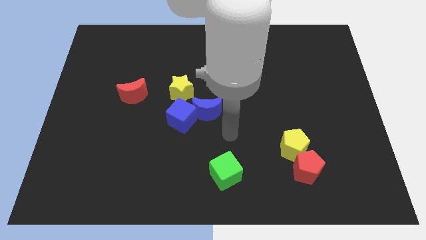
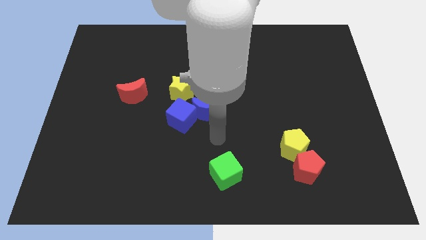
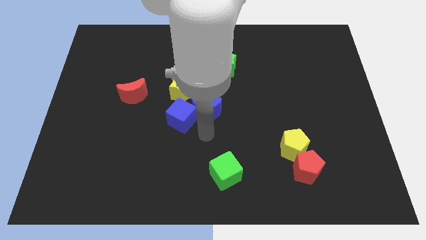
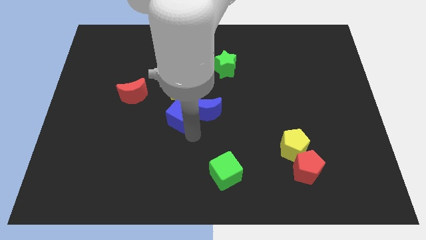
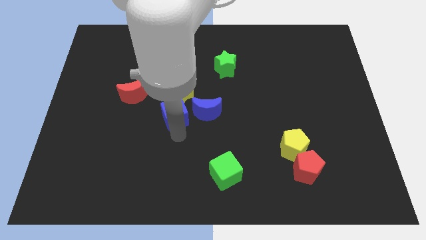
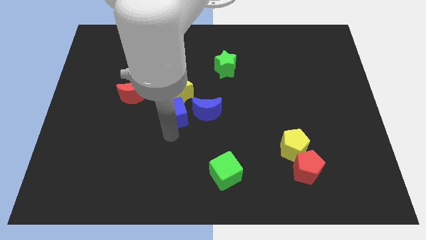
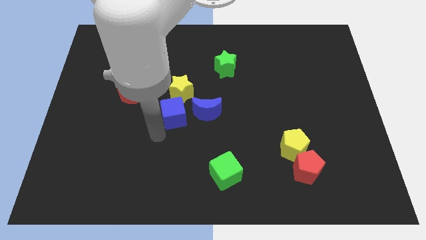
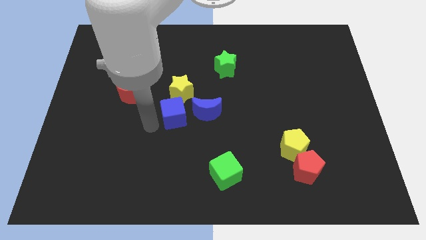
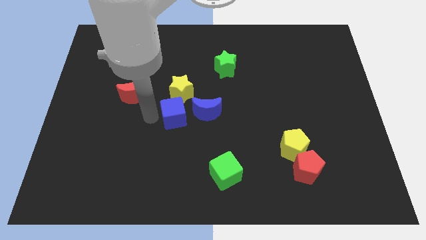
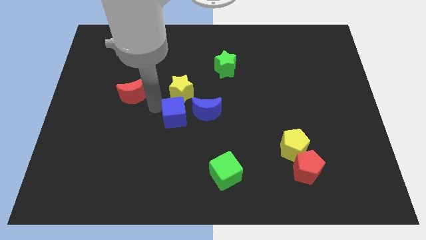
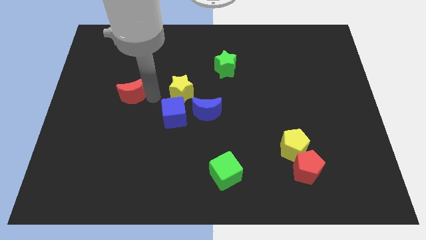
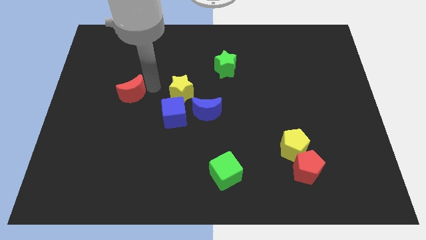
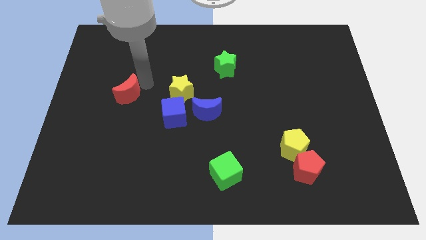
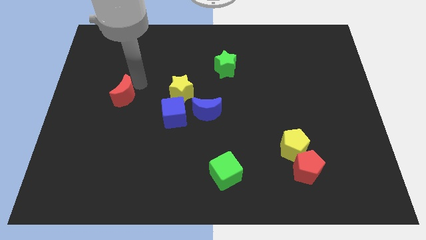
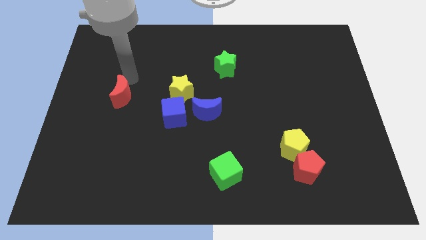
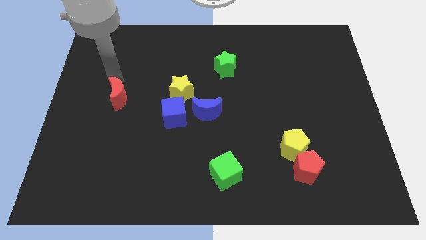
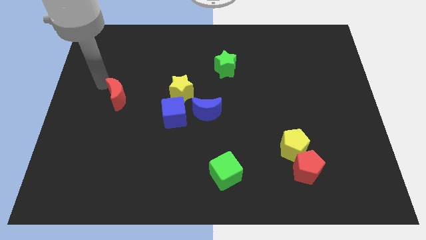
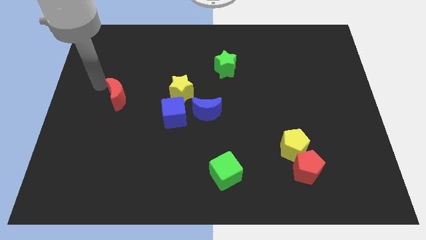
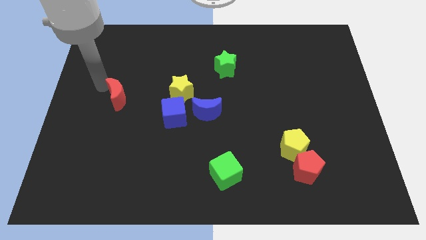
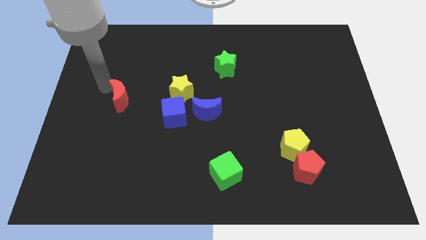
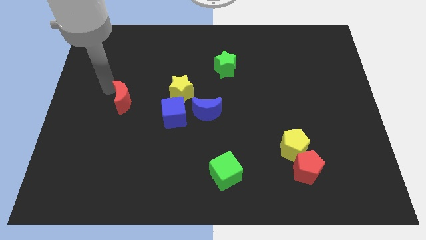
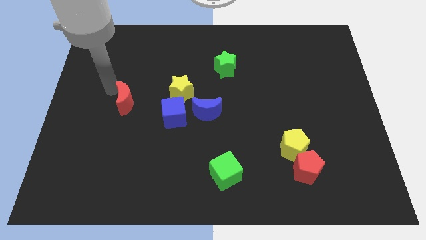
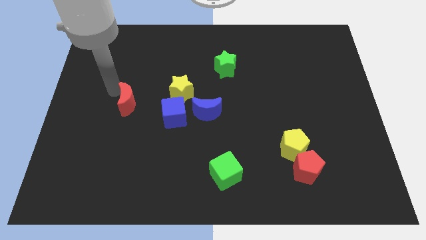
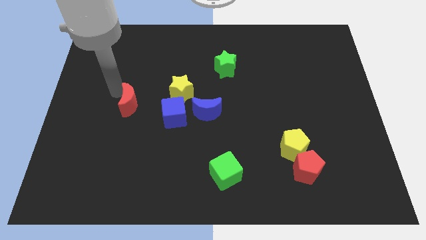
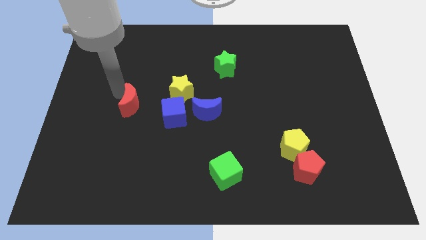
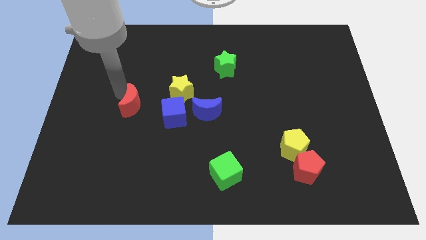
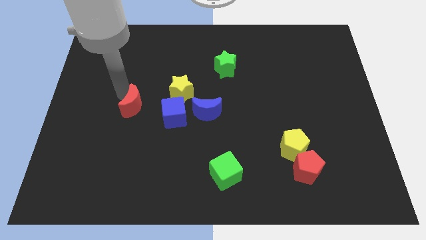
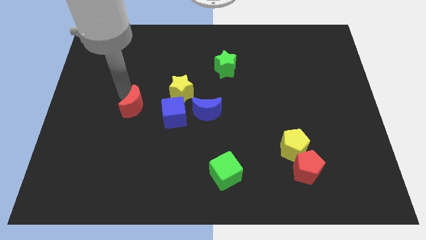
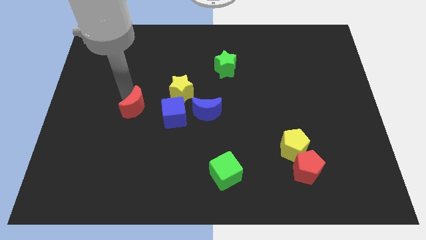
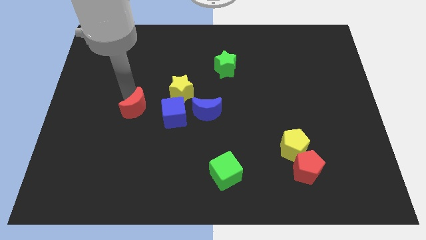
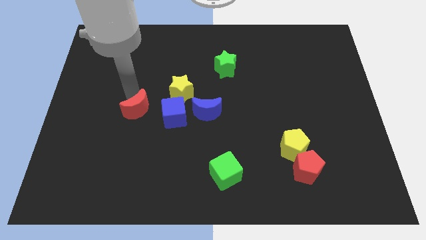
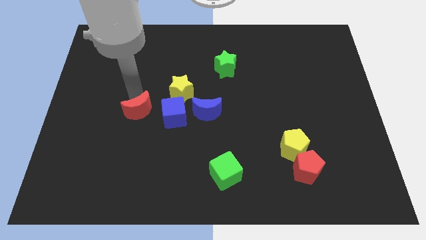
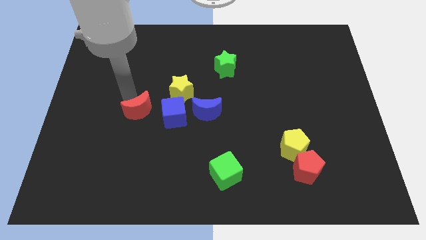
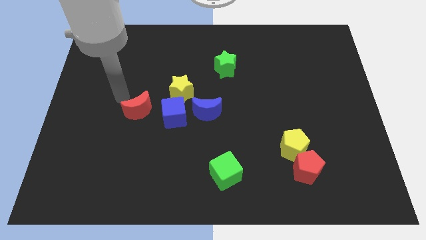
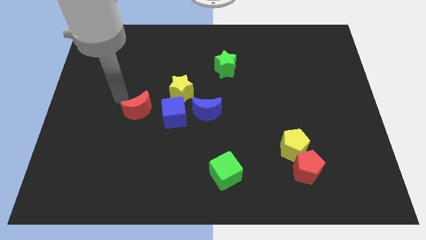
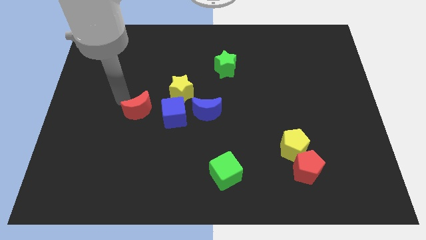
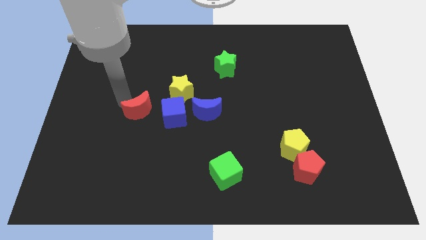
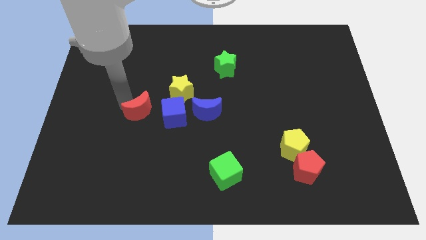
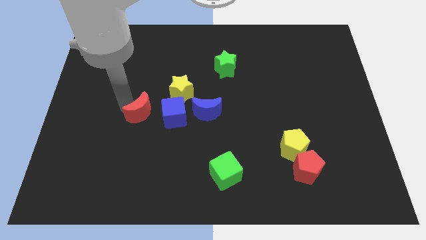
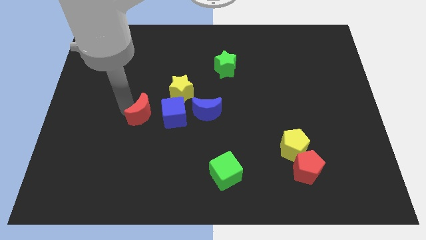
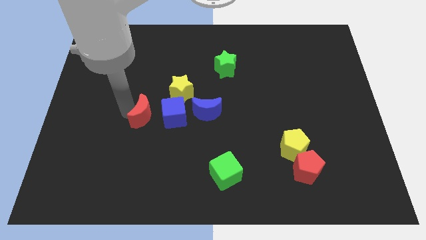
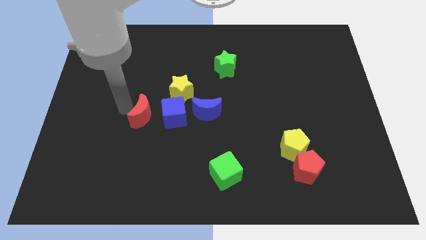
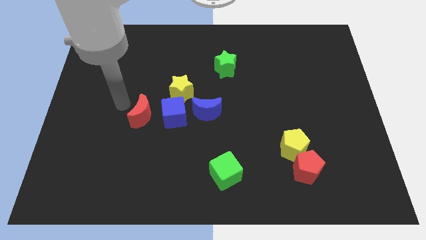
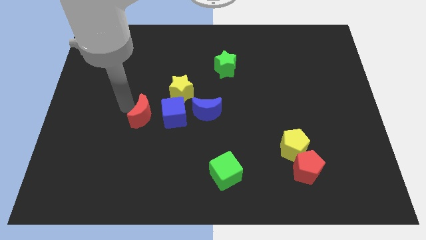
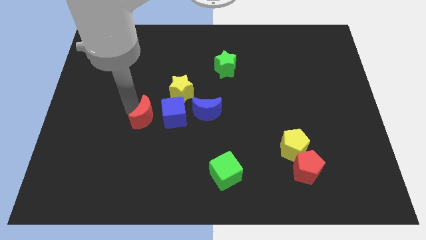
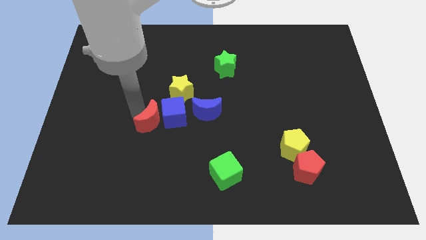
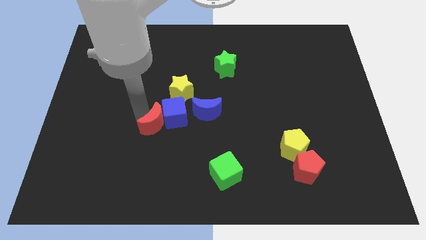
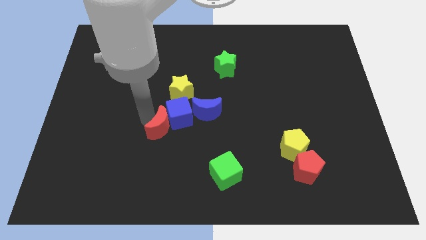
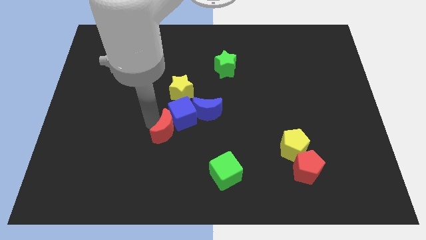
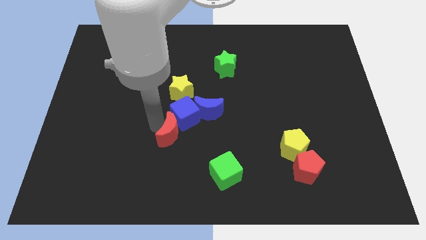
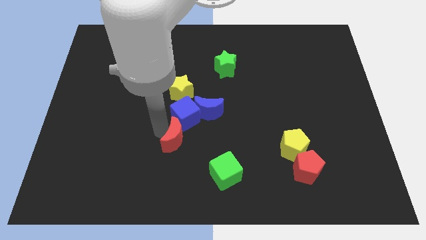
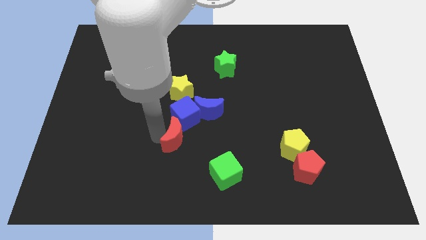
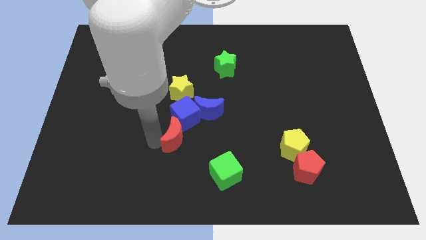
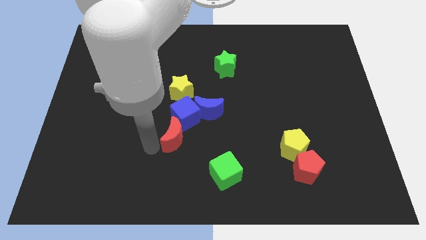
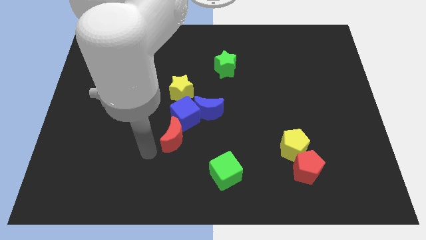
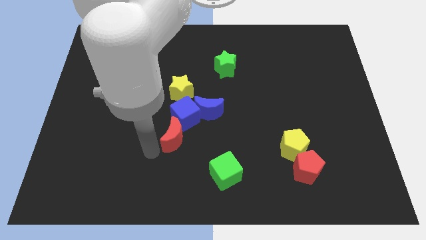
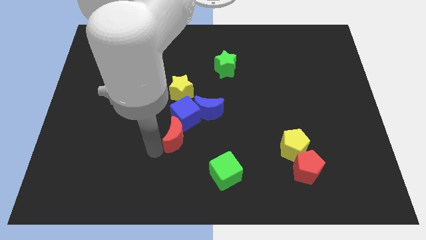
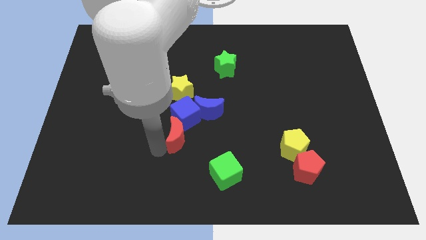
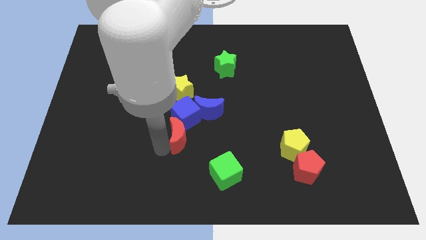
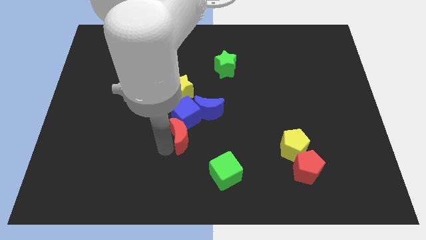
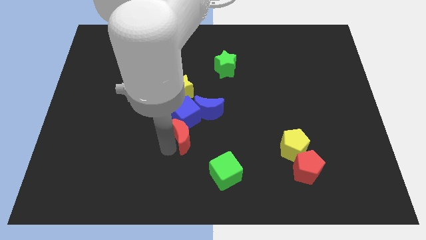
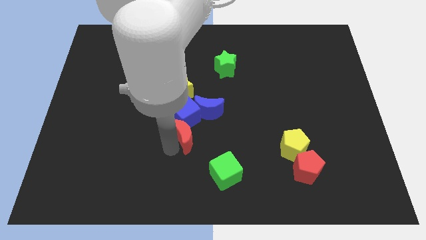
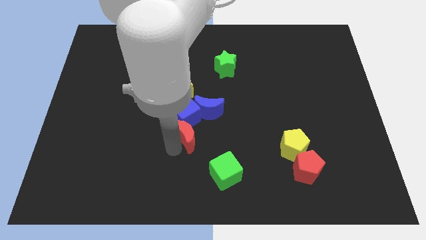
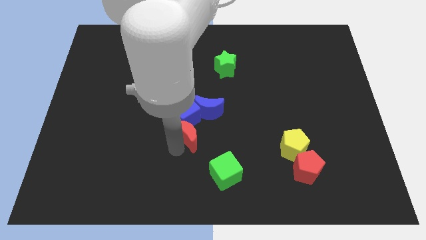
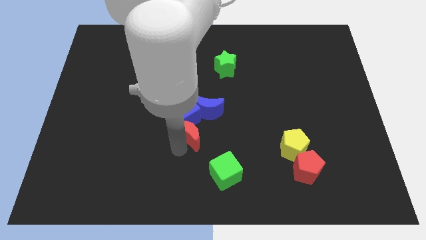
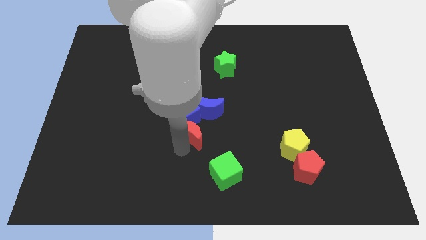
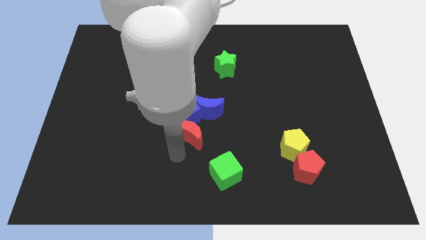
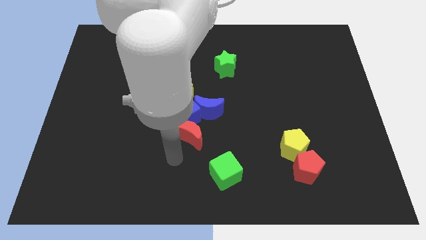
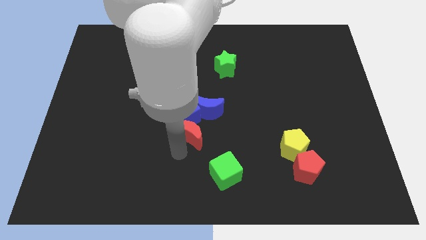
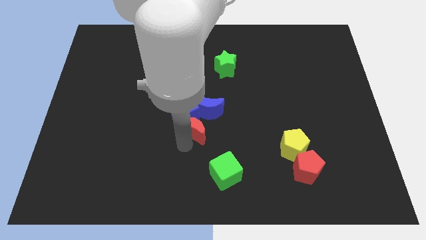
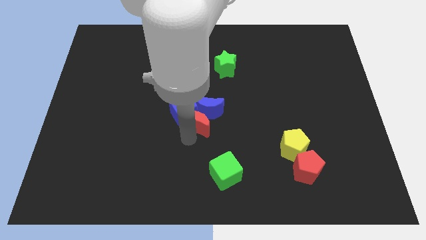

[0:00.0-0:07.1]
put the red moon towards the blue moon

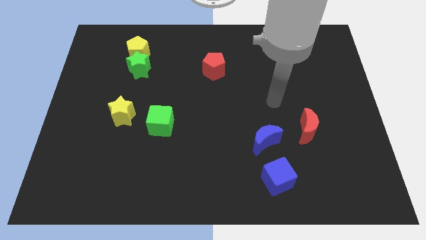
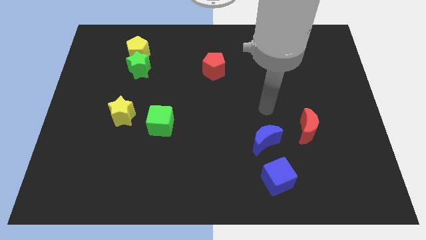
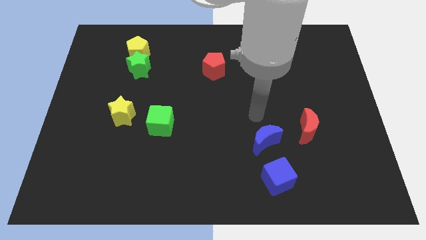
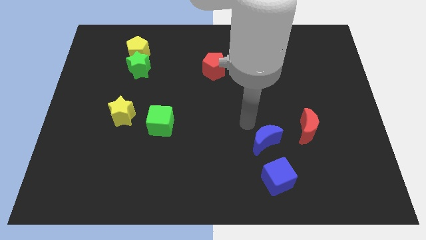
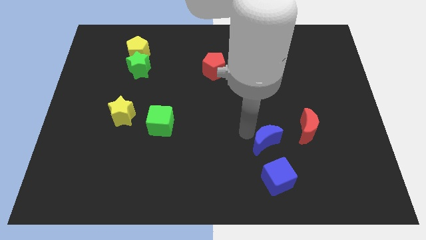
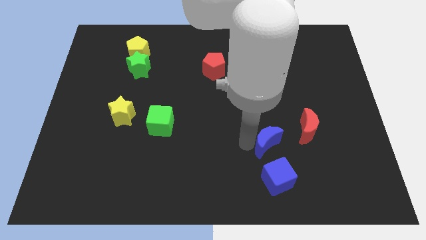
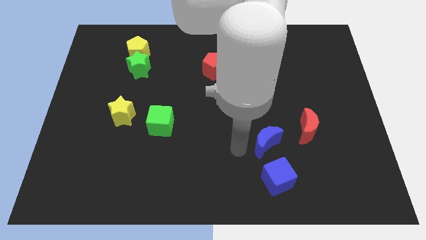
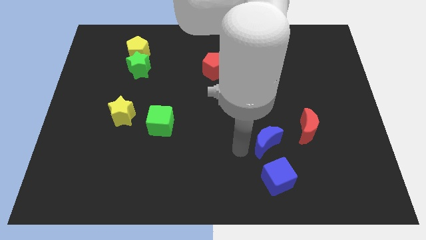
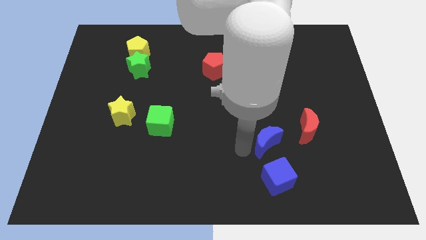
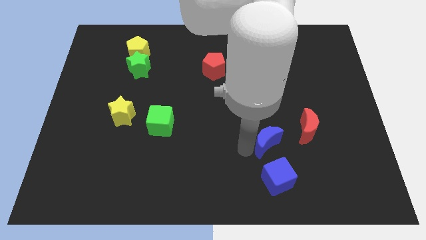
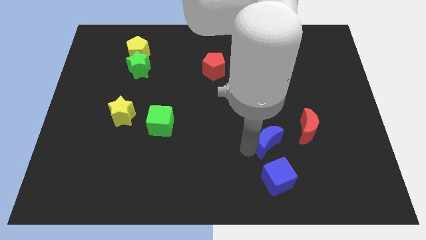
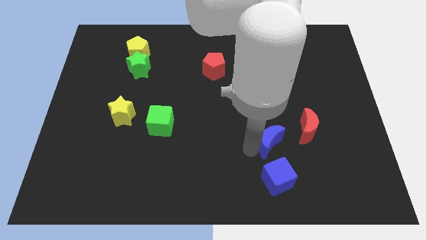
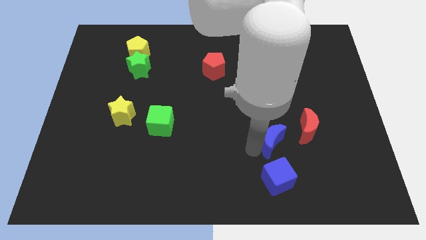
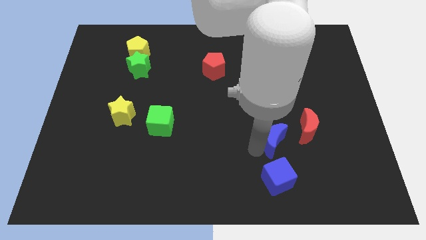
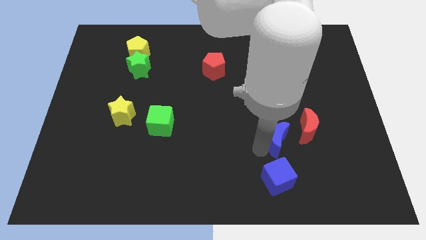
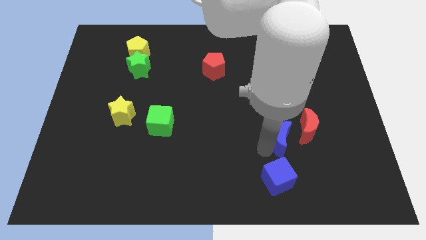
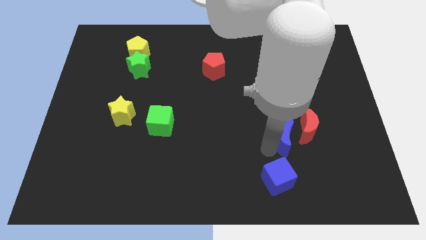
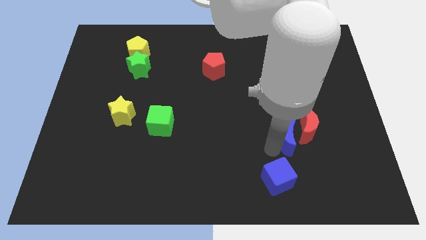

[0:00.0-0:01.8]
put the blue moon towards the red moon
